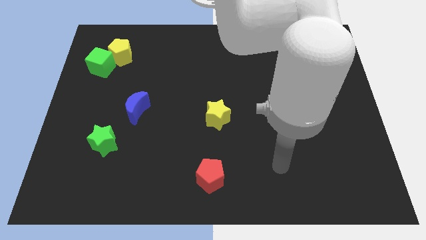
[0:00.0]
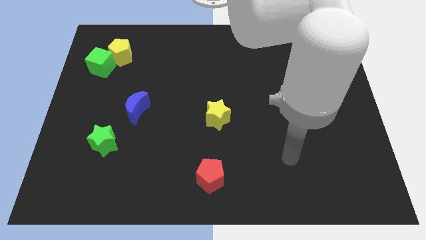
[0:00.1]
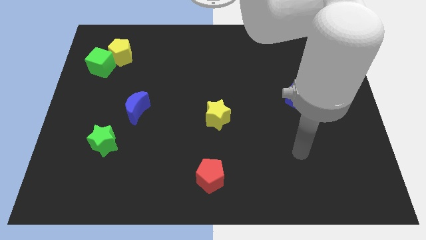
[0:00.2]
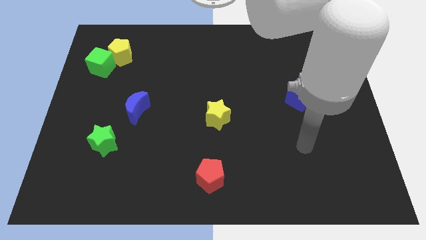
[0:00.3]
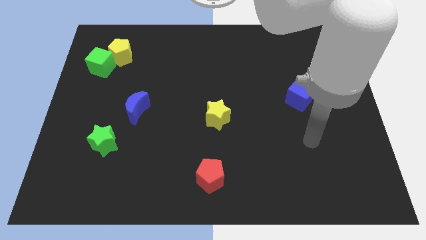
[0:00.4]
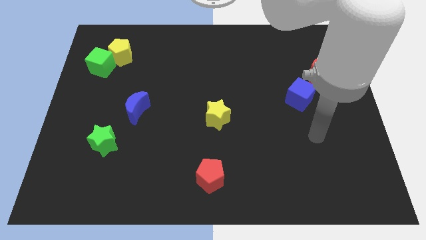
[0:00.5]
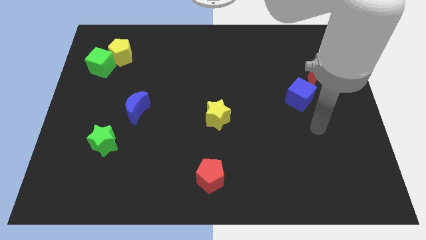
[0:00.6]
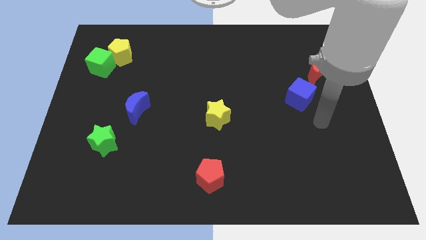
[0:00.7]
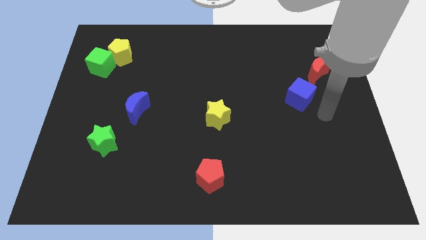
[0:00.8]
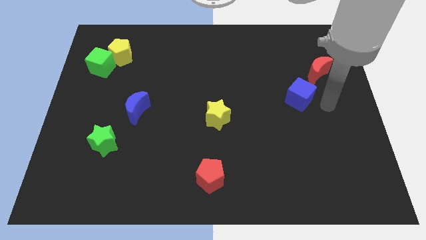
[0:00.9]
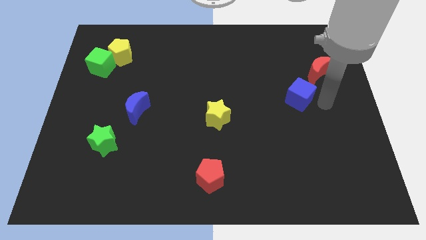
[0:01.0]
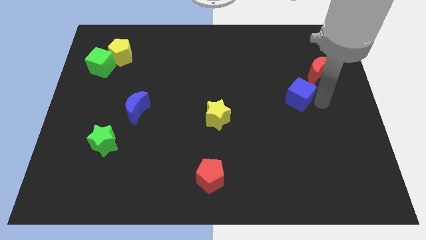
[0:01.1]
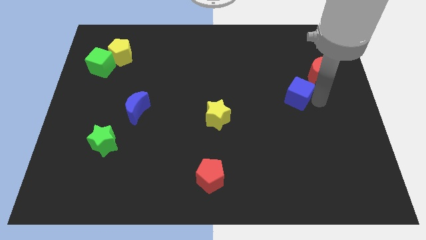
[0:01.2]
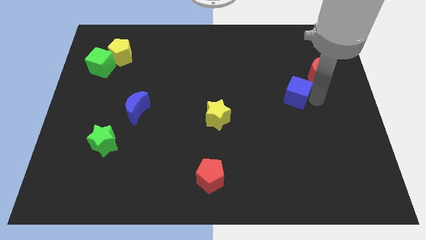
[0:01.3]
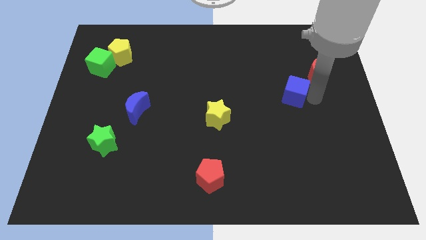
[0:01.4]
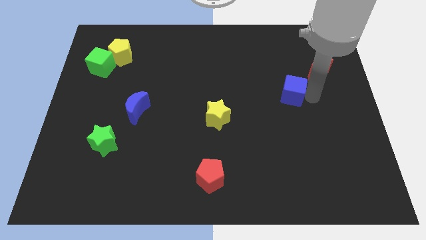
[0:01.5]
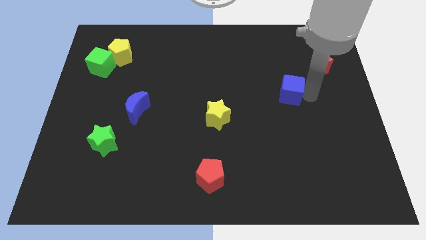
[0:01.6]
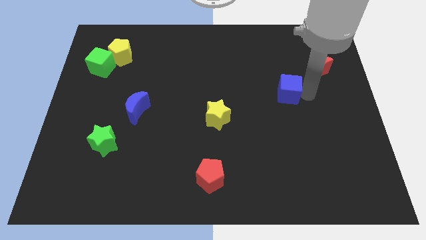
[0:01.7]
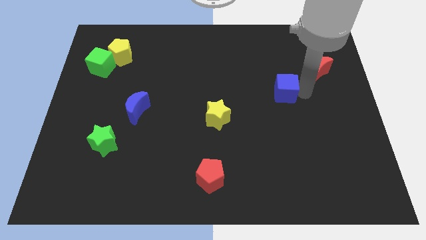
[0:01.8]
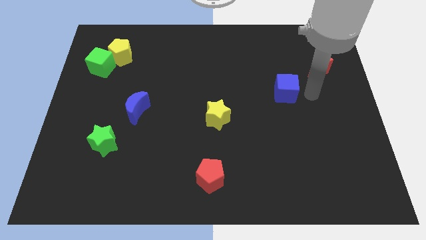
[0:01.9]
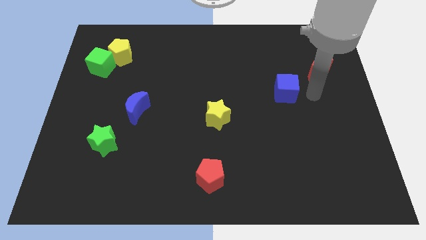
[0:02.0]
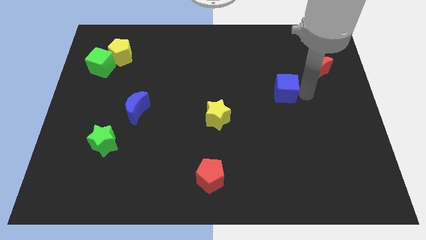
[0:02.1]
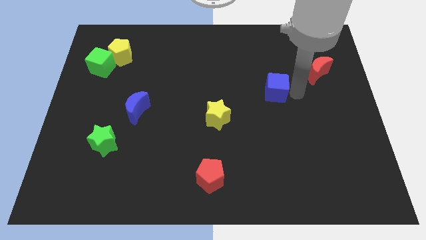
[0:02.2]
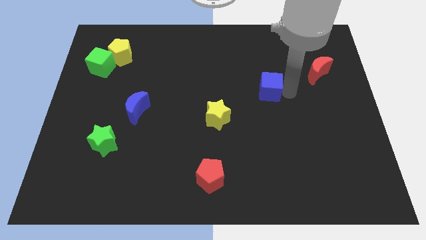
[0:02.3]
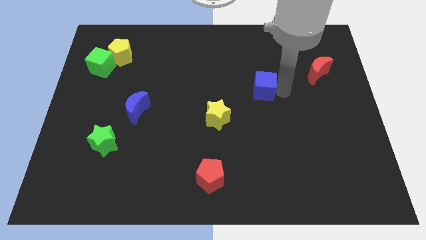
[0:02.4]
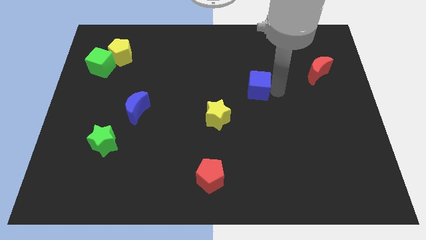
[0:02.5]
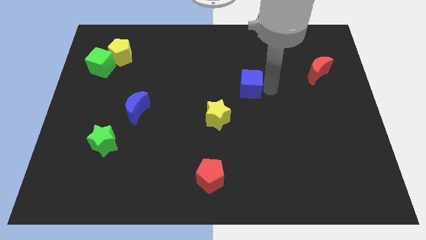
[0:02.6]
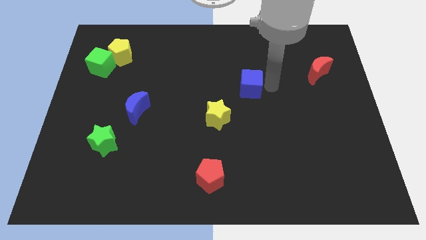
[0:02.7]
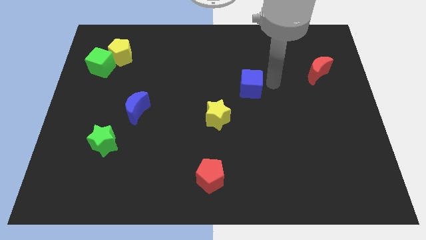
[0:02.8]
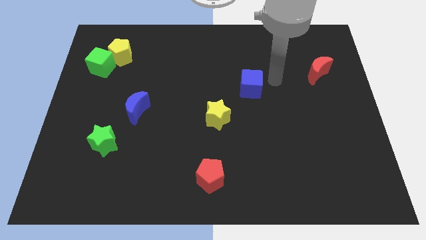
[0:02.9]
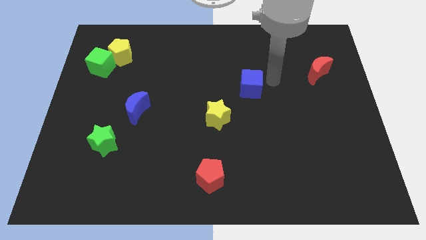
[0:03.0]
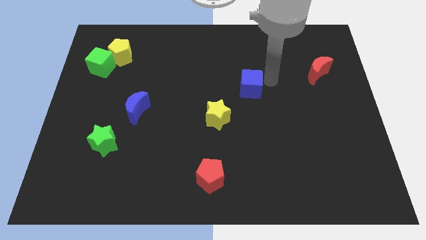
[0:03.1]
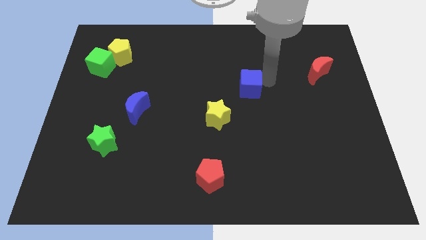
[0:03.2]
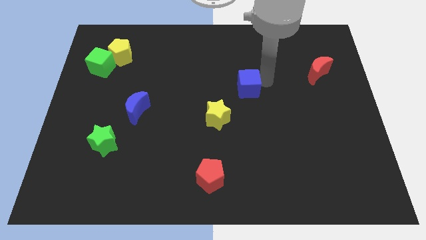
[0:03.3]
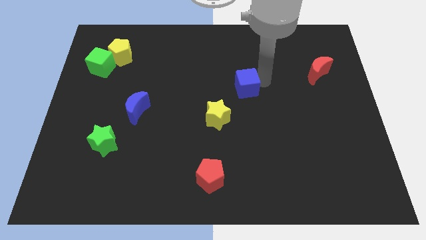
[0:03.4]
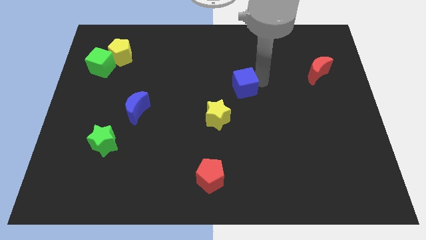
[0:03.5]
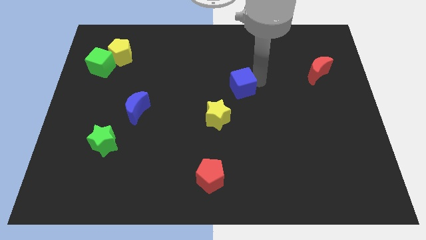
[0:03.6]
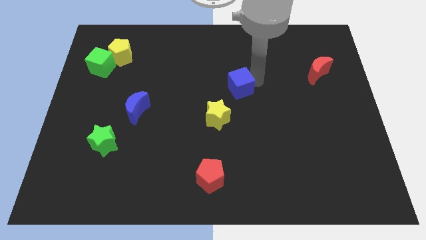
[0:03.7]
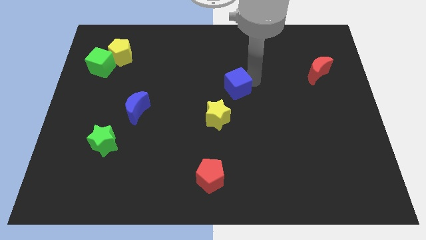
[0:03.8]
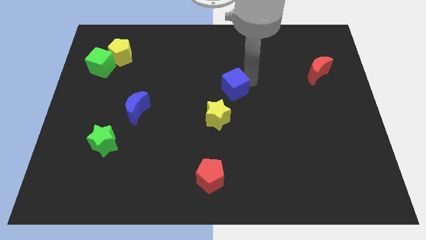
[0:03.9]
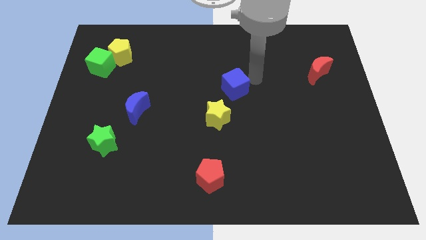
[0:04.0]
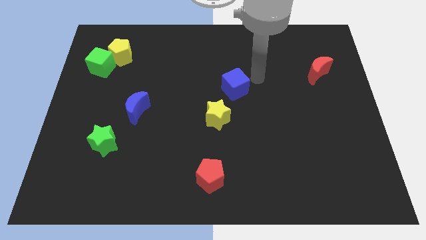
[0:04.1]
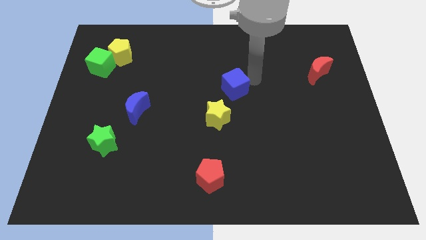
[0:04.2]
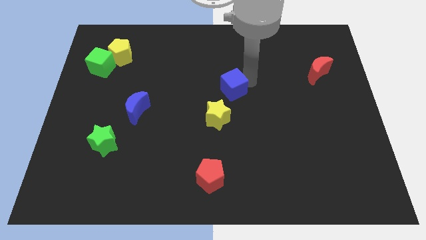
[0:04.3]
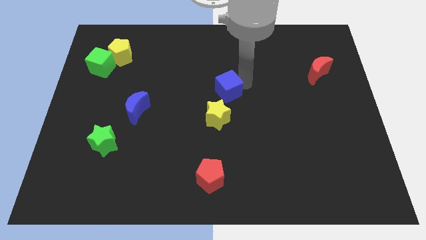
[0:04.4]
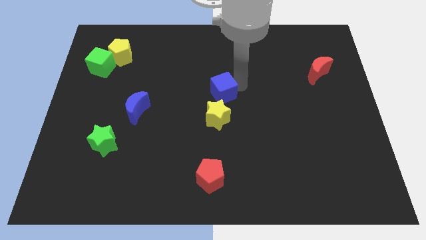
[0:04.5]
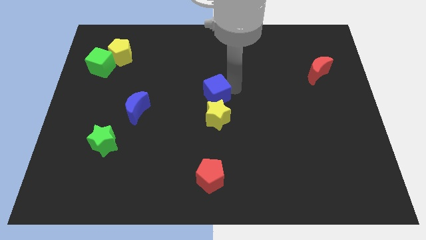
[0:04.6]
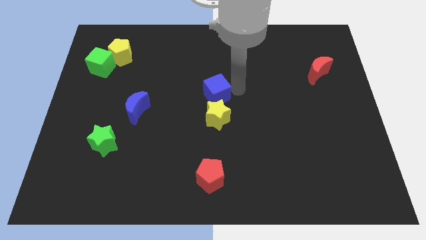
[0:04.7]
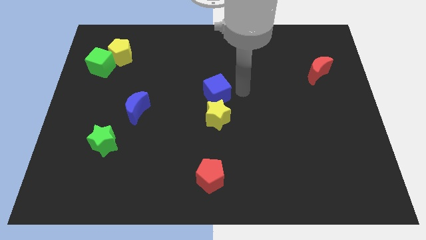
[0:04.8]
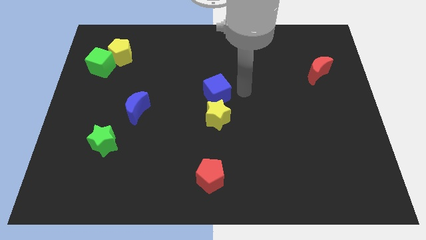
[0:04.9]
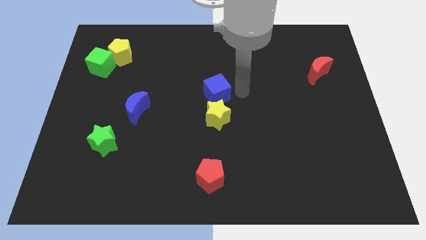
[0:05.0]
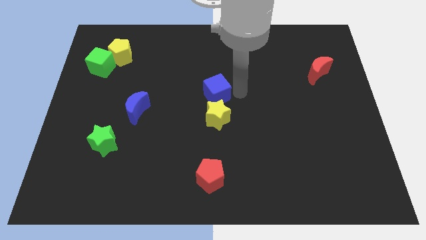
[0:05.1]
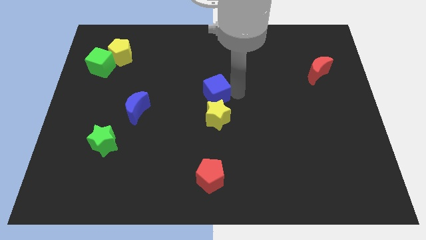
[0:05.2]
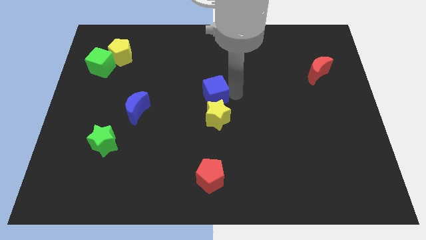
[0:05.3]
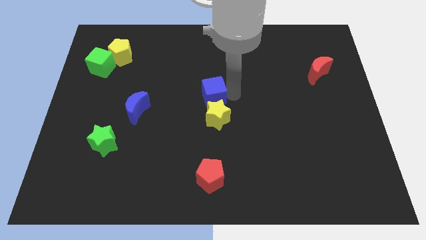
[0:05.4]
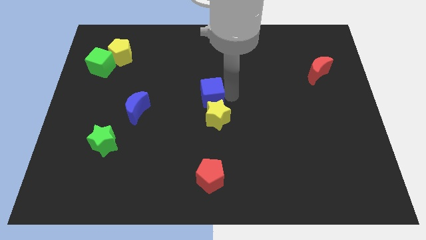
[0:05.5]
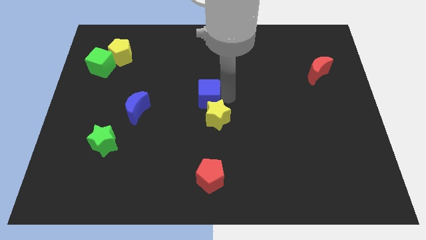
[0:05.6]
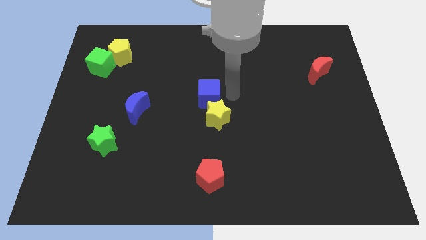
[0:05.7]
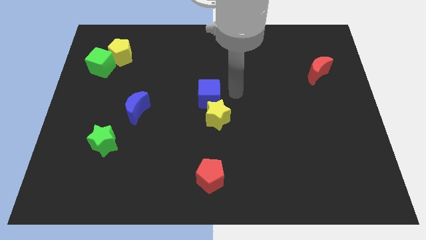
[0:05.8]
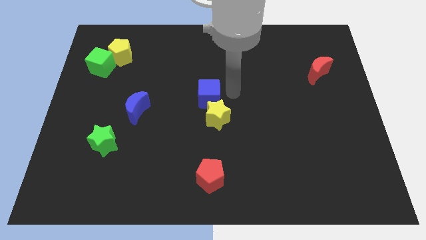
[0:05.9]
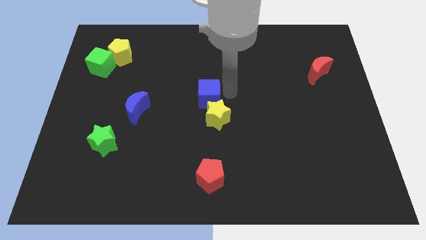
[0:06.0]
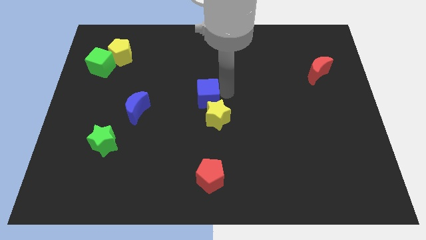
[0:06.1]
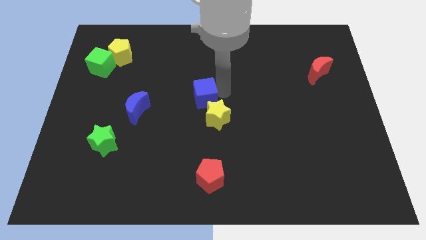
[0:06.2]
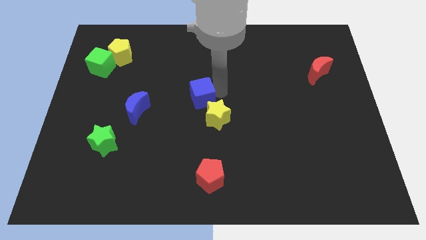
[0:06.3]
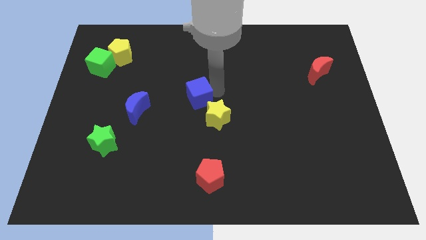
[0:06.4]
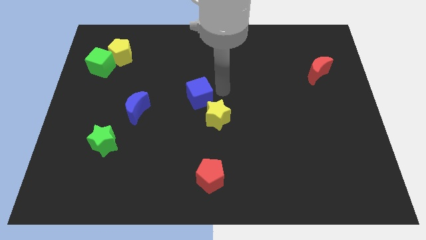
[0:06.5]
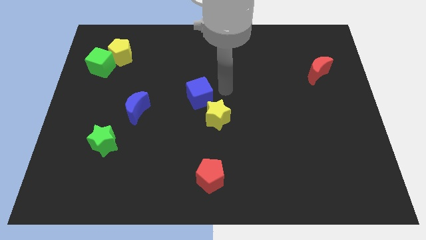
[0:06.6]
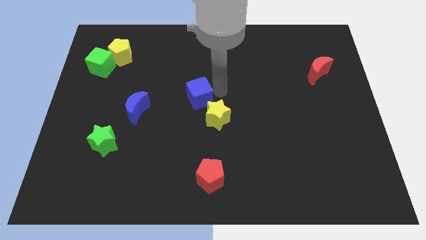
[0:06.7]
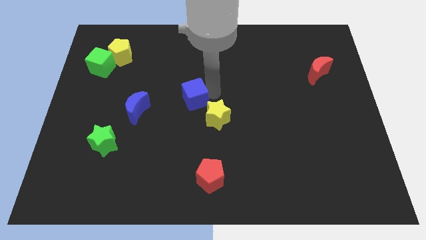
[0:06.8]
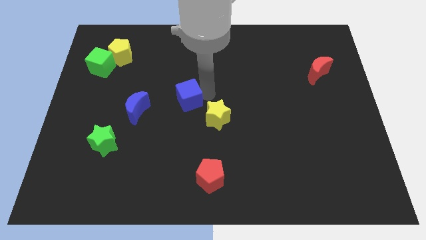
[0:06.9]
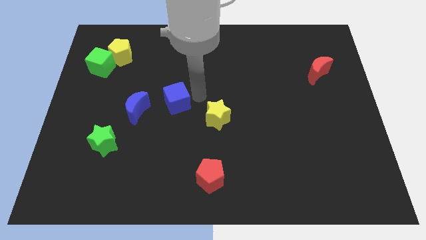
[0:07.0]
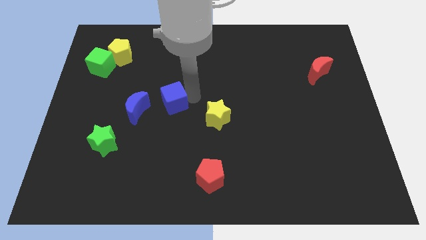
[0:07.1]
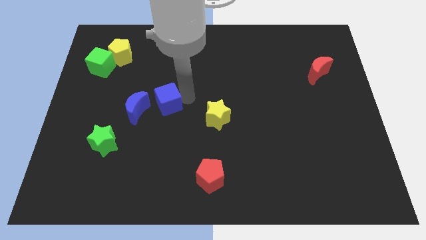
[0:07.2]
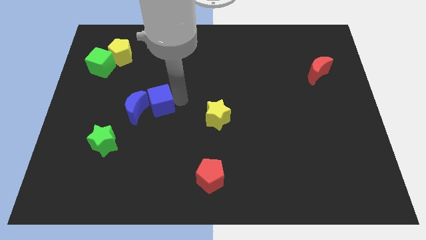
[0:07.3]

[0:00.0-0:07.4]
push the blue cube towards the blue moon
